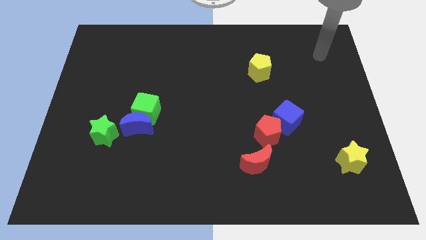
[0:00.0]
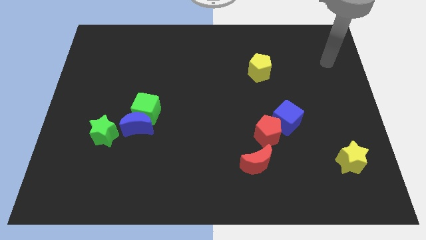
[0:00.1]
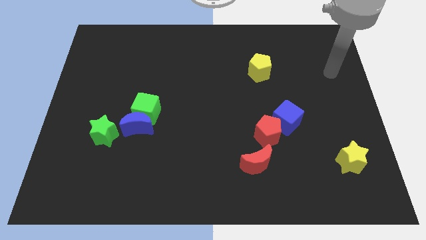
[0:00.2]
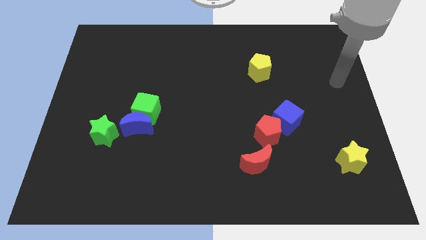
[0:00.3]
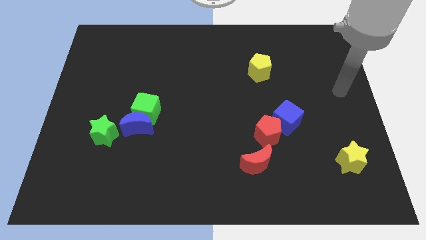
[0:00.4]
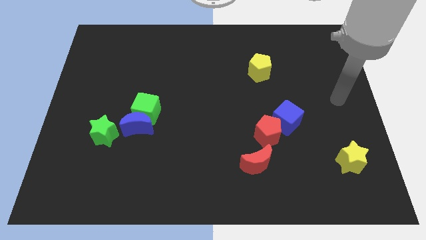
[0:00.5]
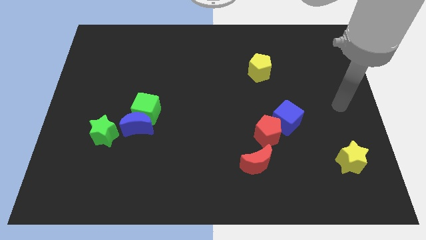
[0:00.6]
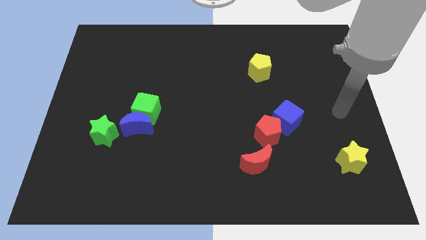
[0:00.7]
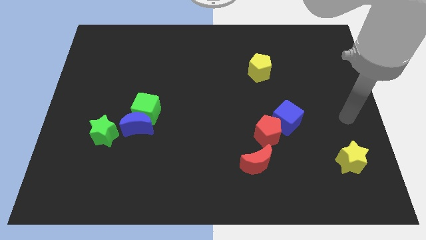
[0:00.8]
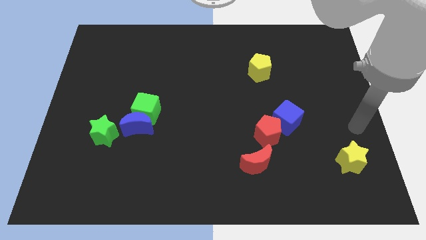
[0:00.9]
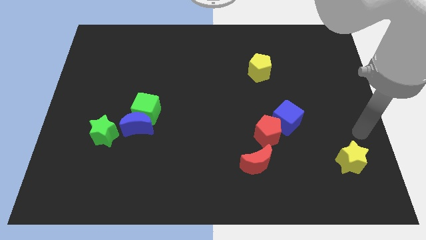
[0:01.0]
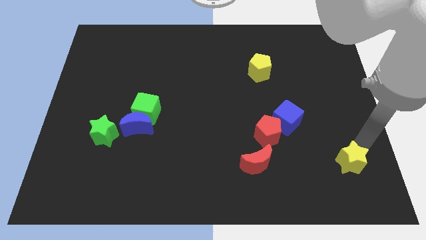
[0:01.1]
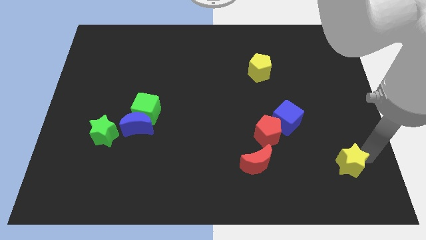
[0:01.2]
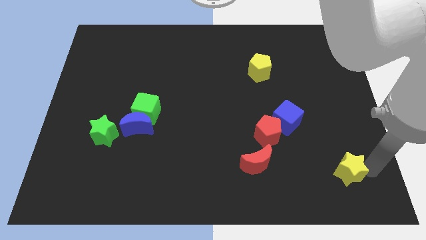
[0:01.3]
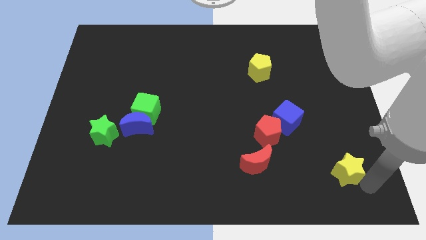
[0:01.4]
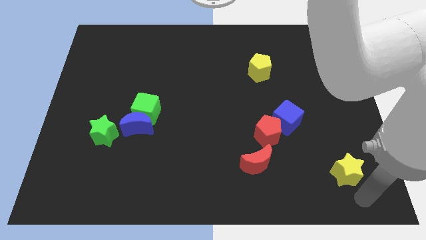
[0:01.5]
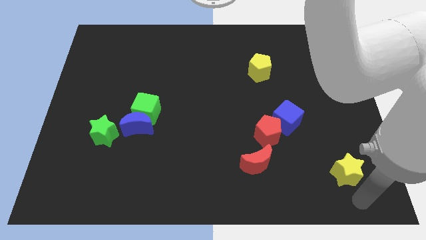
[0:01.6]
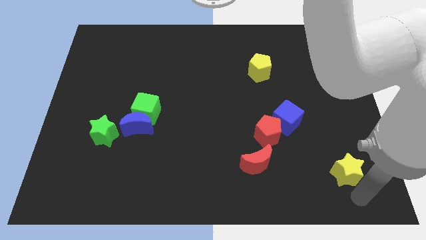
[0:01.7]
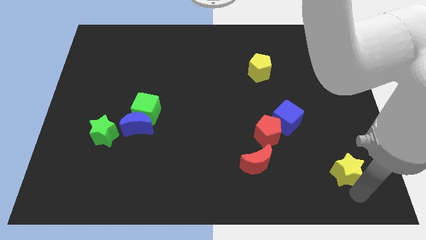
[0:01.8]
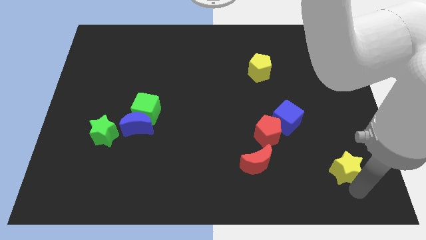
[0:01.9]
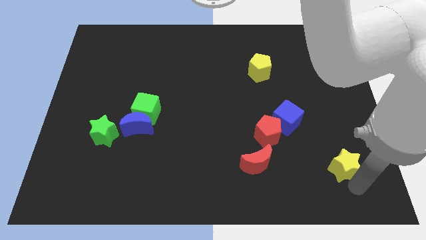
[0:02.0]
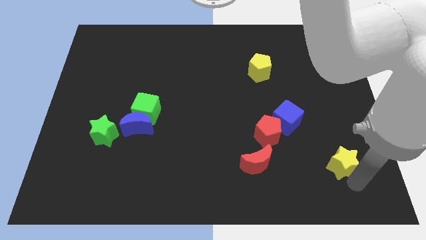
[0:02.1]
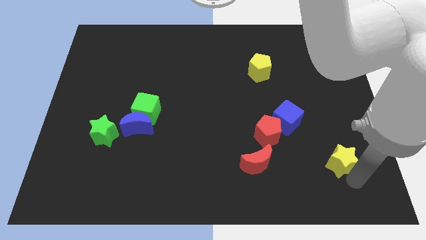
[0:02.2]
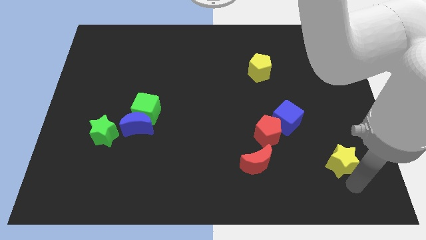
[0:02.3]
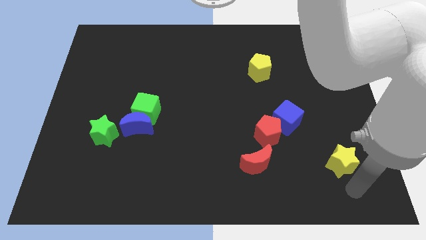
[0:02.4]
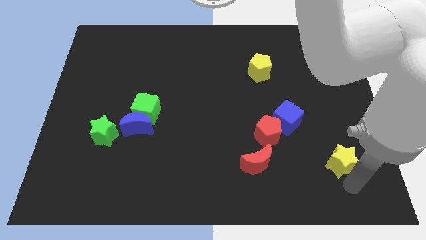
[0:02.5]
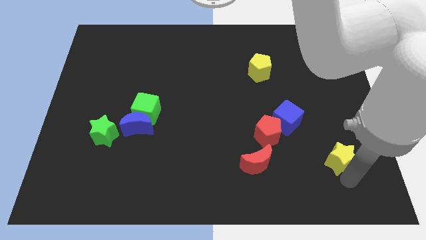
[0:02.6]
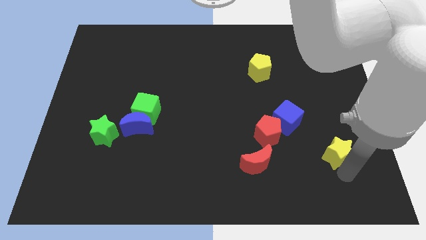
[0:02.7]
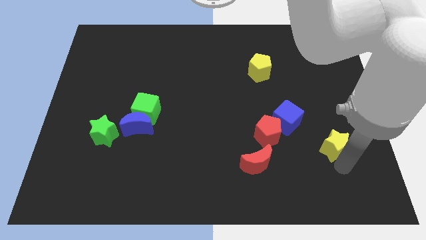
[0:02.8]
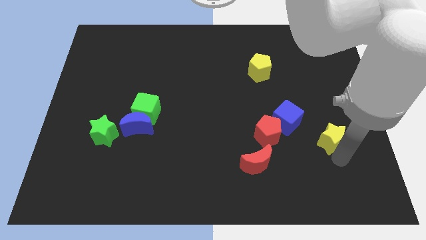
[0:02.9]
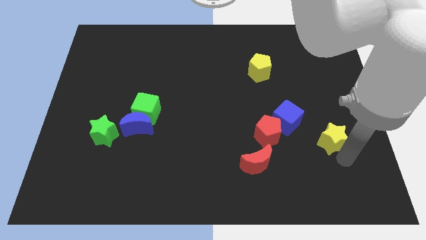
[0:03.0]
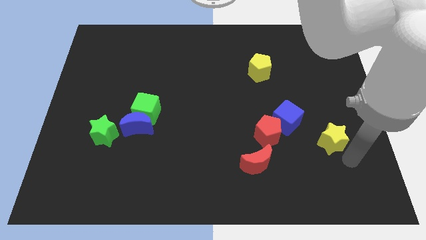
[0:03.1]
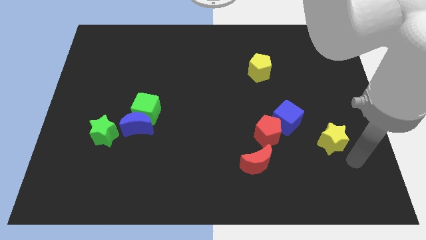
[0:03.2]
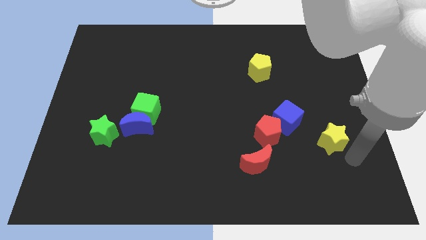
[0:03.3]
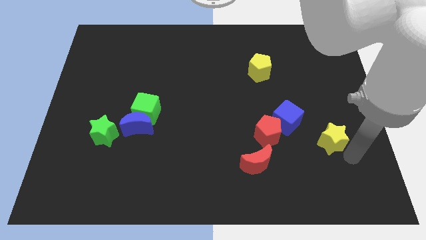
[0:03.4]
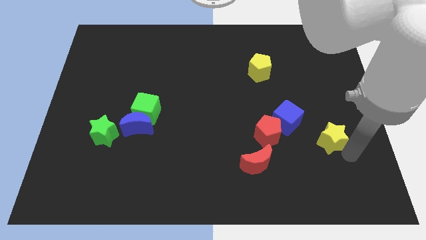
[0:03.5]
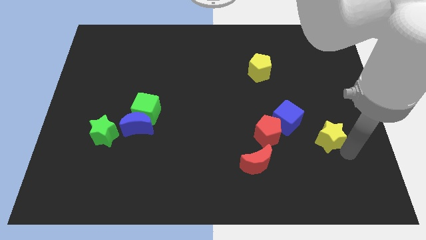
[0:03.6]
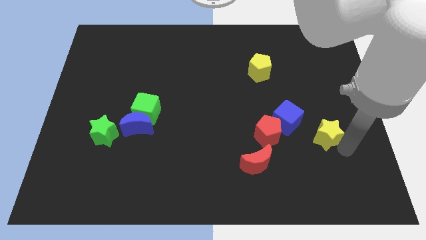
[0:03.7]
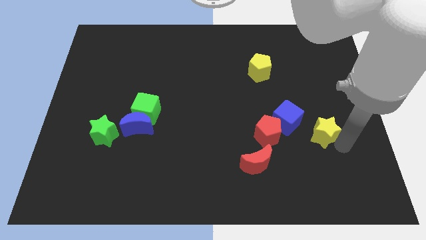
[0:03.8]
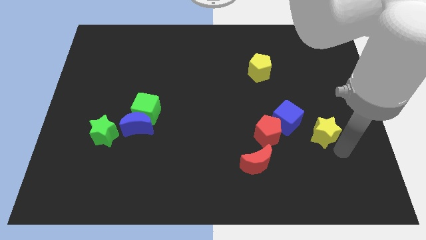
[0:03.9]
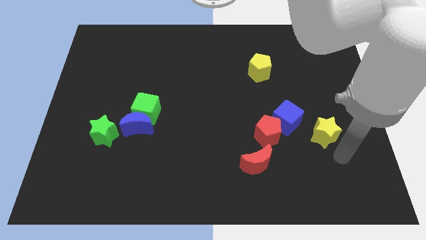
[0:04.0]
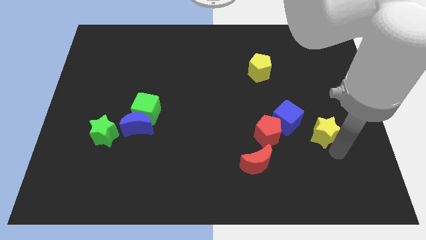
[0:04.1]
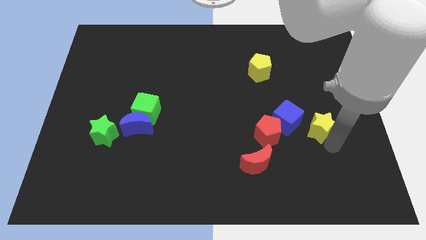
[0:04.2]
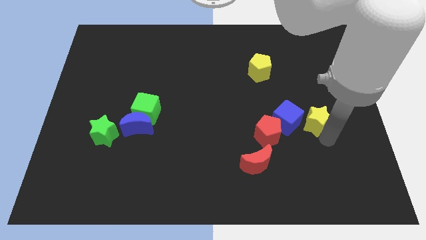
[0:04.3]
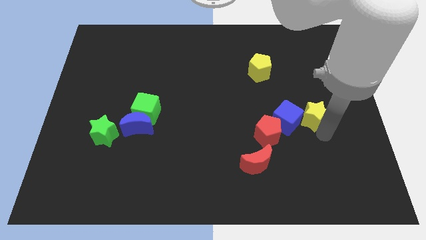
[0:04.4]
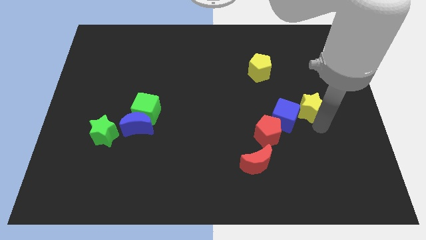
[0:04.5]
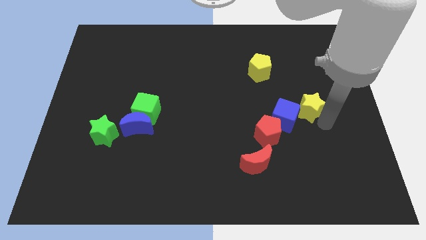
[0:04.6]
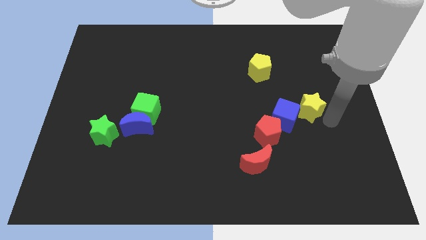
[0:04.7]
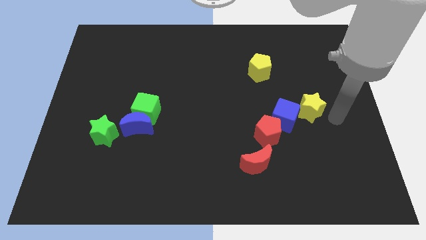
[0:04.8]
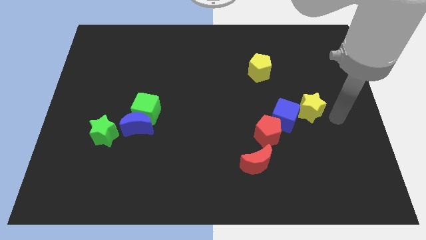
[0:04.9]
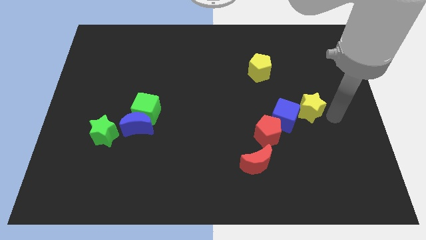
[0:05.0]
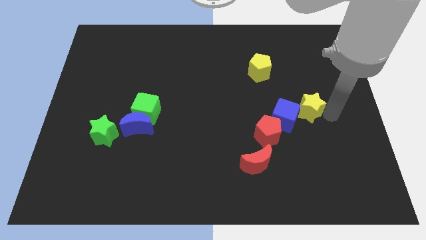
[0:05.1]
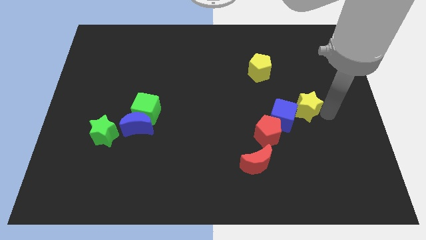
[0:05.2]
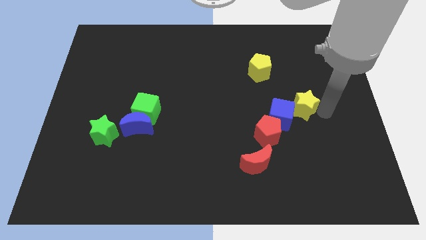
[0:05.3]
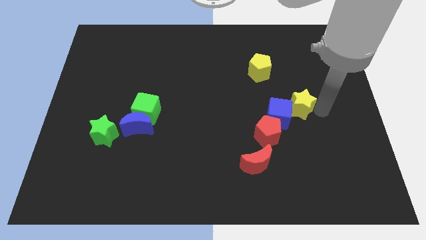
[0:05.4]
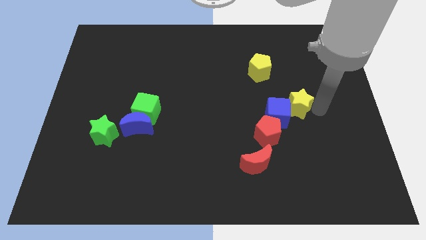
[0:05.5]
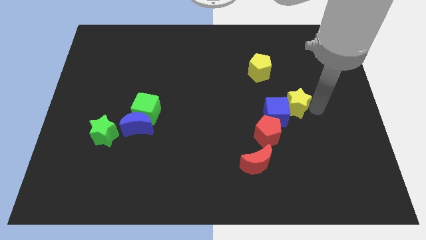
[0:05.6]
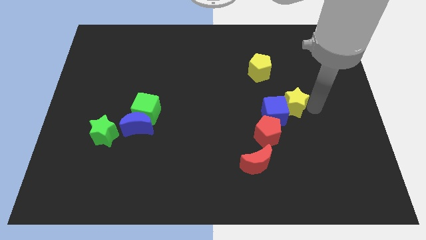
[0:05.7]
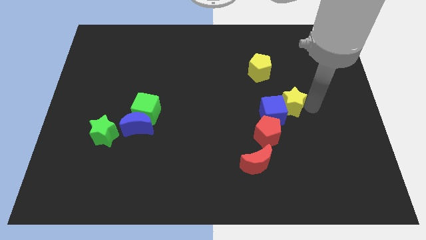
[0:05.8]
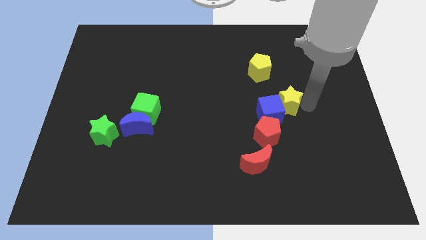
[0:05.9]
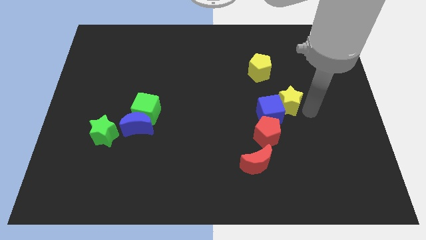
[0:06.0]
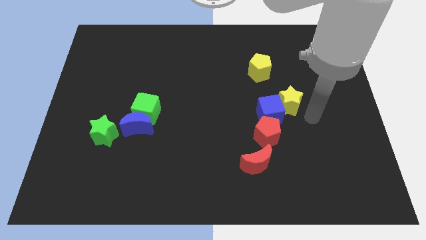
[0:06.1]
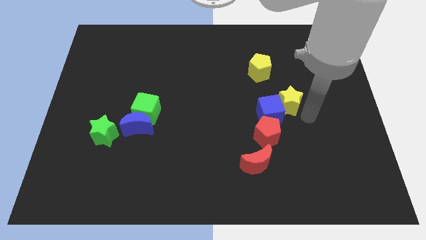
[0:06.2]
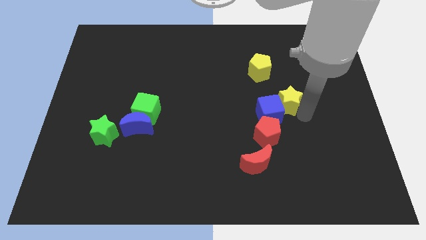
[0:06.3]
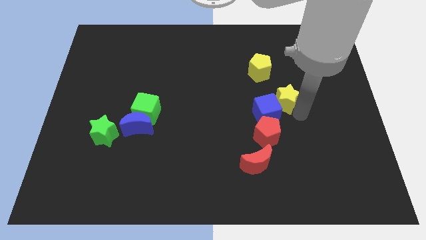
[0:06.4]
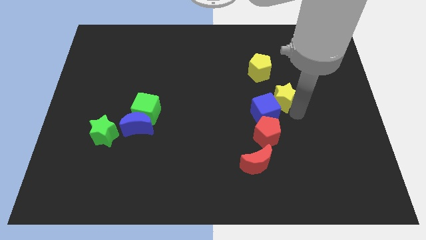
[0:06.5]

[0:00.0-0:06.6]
move the yellow star diagonally upwards and to the left

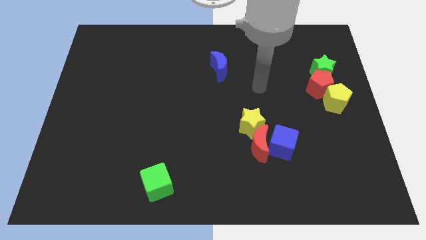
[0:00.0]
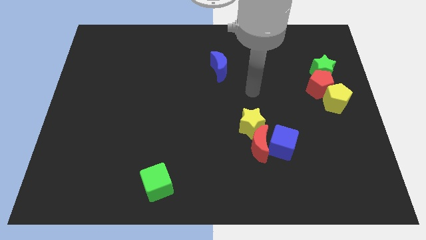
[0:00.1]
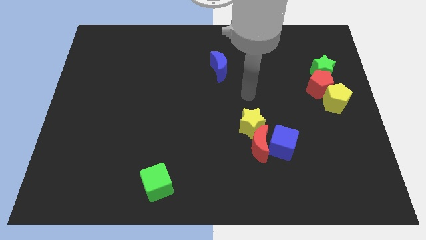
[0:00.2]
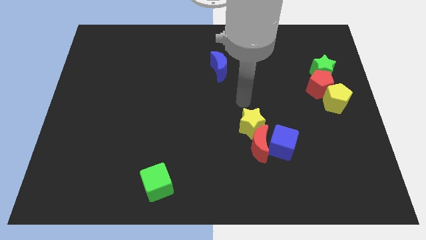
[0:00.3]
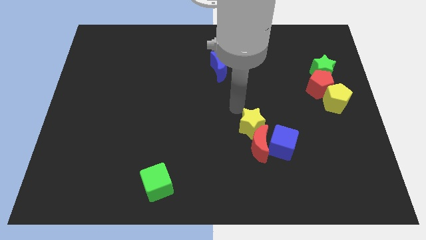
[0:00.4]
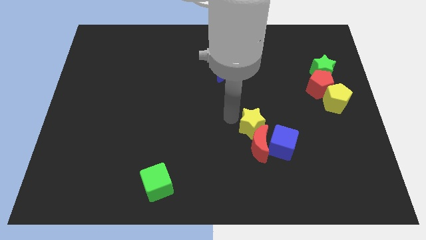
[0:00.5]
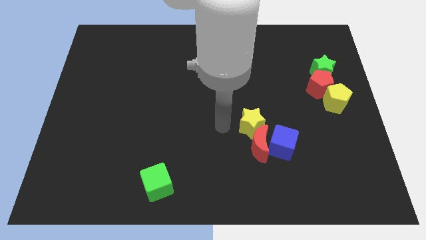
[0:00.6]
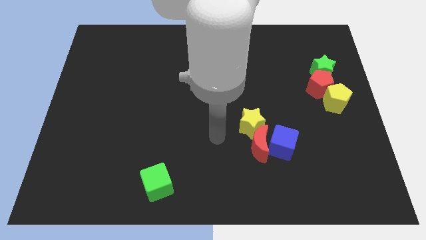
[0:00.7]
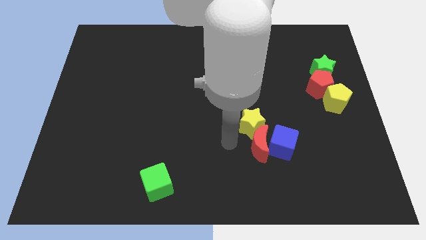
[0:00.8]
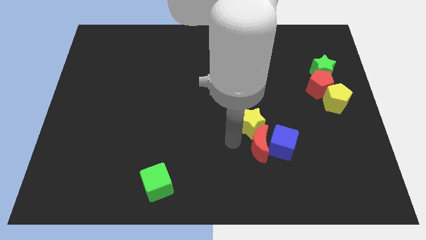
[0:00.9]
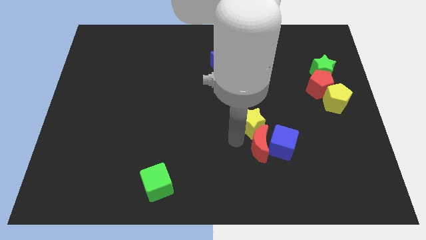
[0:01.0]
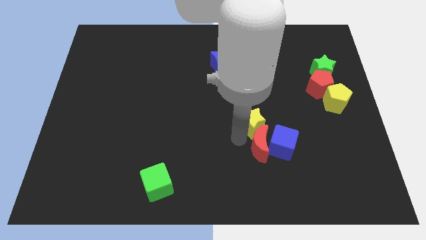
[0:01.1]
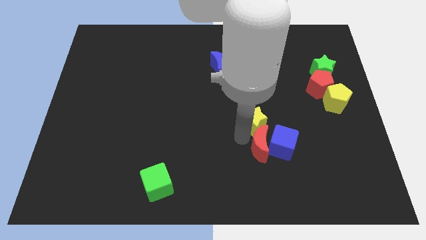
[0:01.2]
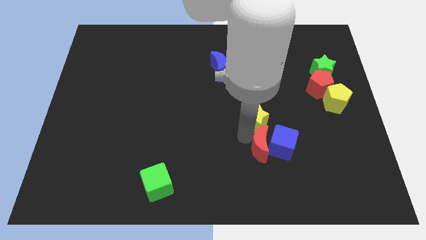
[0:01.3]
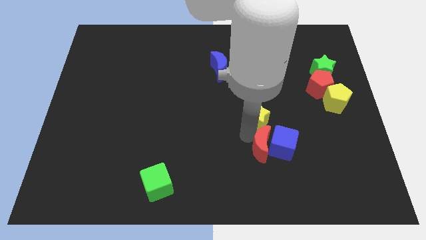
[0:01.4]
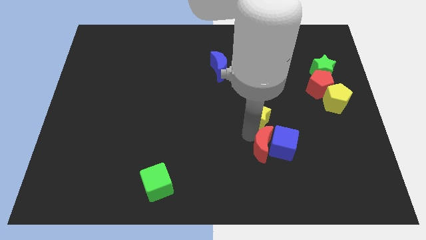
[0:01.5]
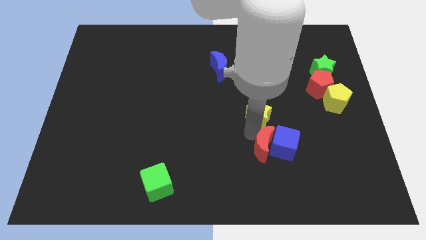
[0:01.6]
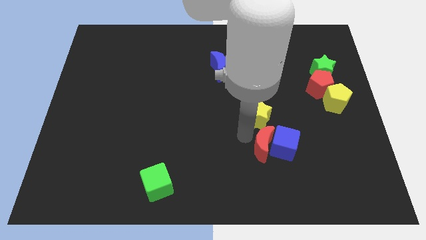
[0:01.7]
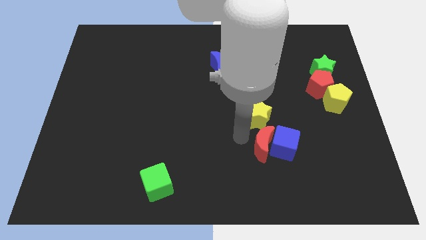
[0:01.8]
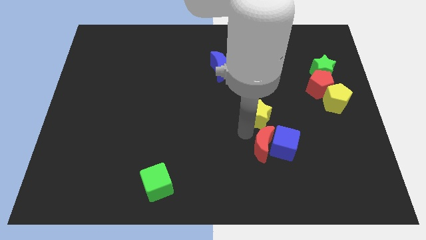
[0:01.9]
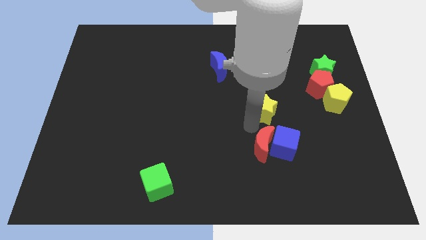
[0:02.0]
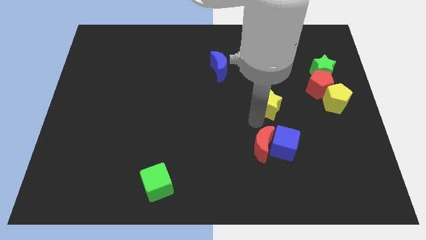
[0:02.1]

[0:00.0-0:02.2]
slightly slide the yellow star upwards and right diagonally
